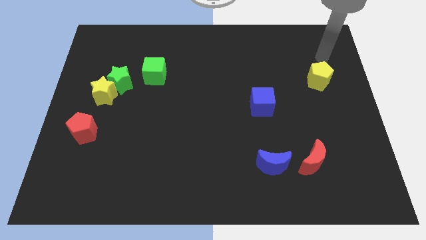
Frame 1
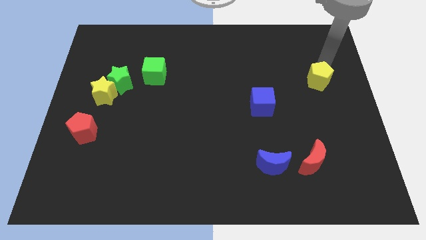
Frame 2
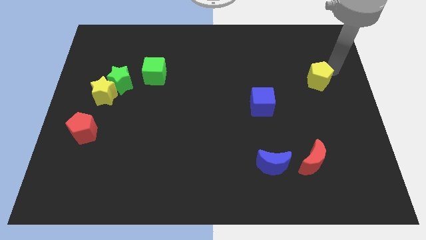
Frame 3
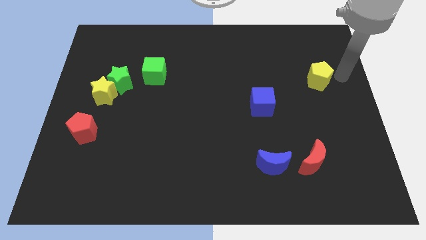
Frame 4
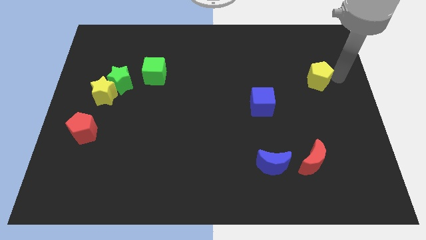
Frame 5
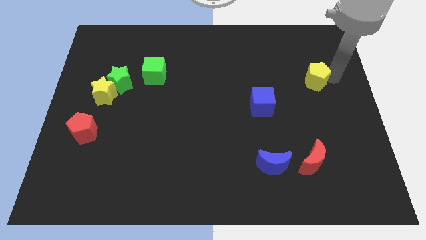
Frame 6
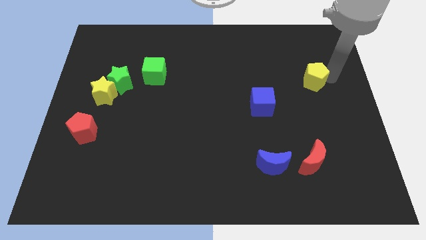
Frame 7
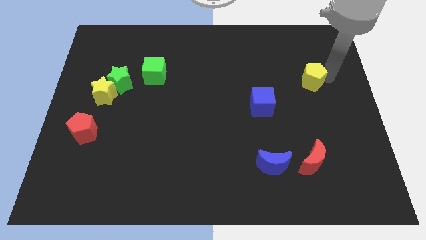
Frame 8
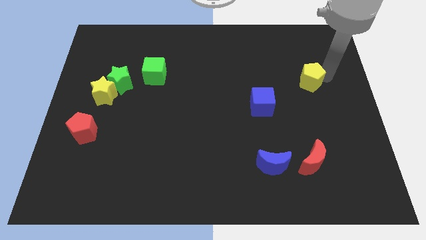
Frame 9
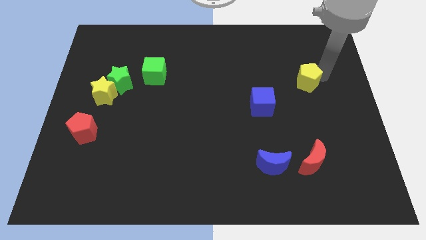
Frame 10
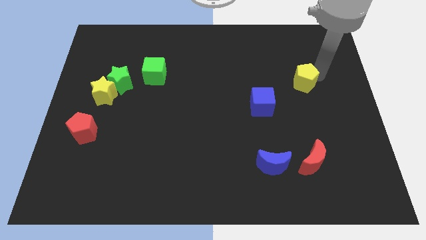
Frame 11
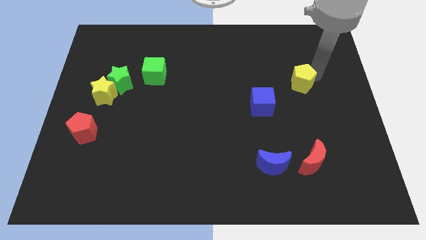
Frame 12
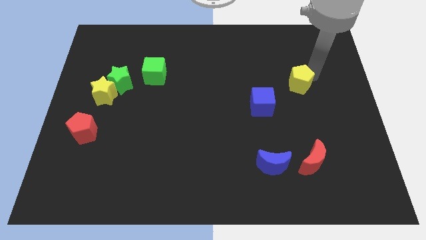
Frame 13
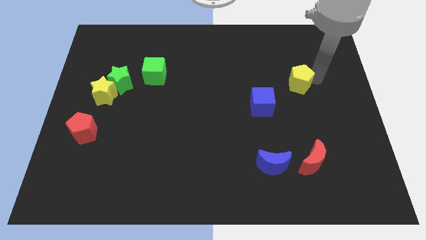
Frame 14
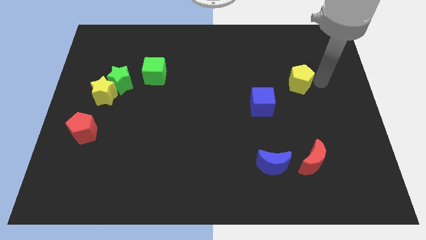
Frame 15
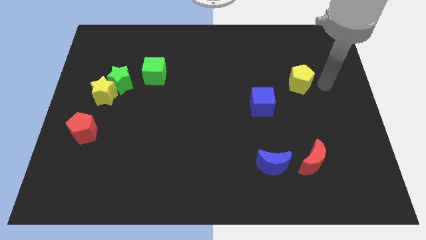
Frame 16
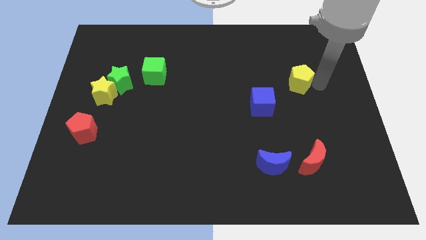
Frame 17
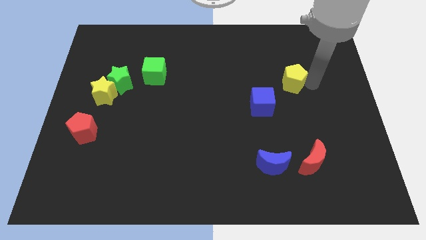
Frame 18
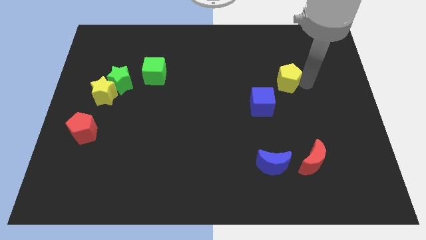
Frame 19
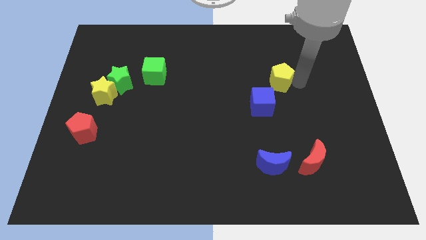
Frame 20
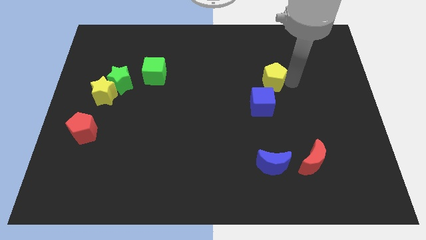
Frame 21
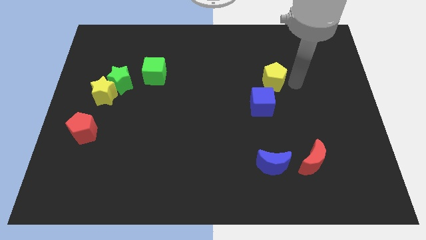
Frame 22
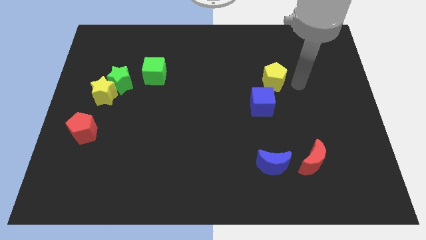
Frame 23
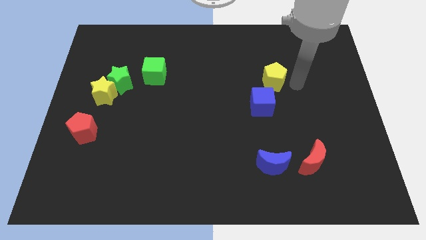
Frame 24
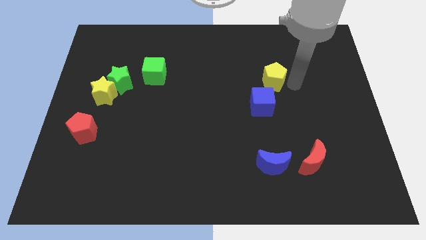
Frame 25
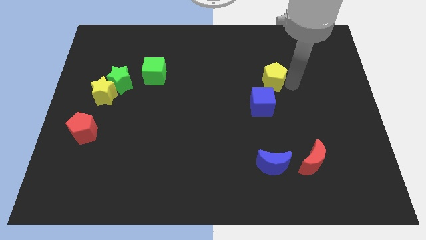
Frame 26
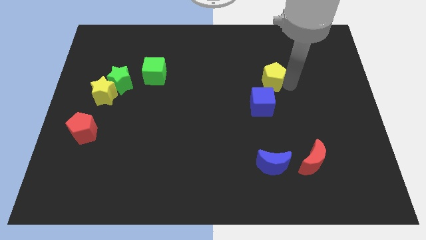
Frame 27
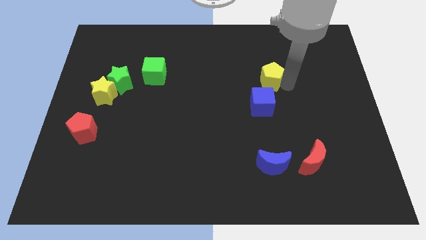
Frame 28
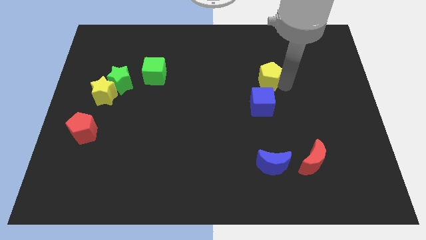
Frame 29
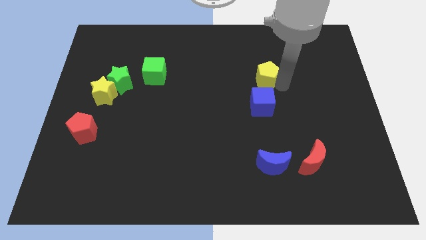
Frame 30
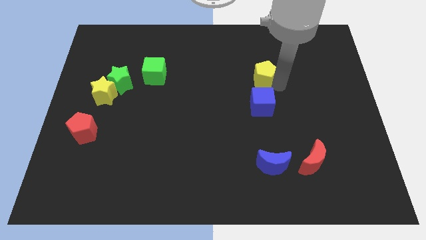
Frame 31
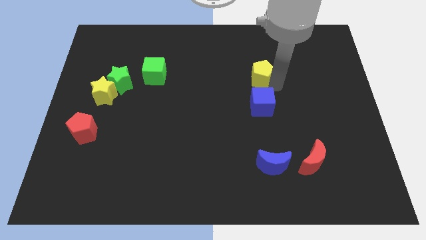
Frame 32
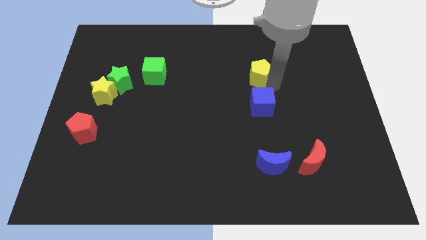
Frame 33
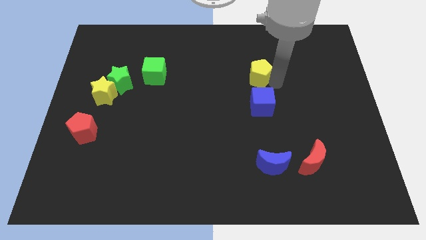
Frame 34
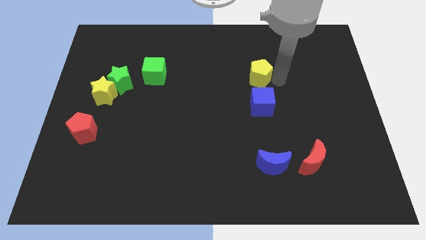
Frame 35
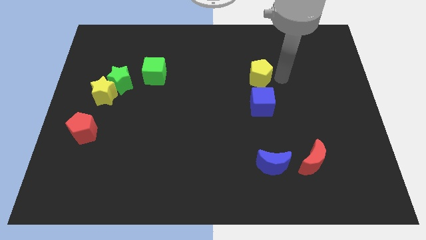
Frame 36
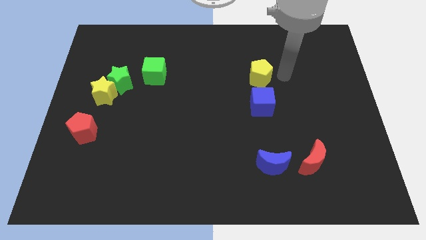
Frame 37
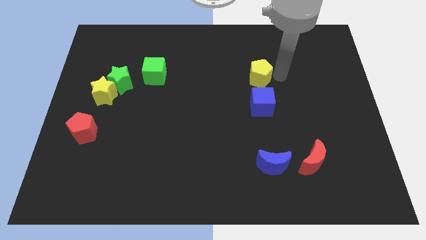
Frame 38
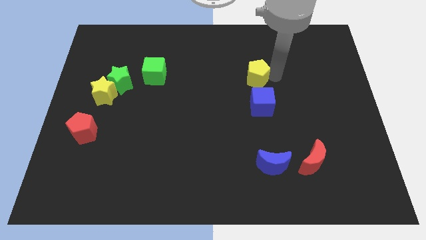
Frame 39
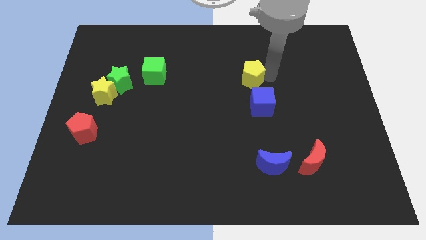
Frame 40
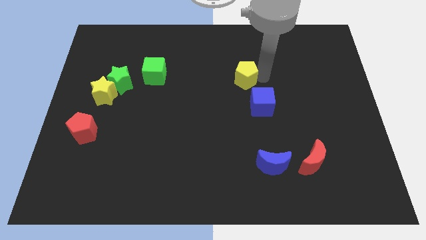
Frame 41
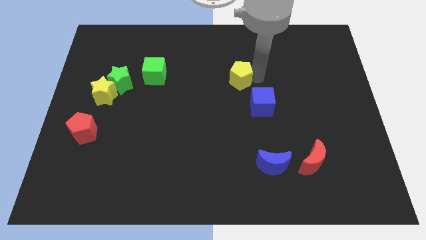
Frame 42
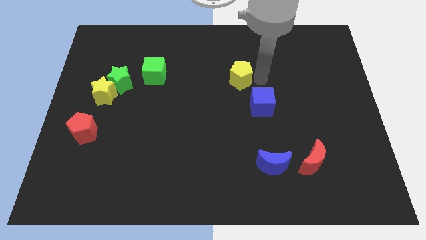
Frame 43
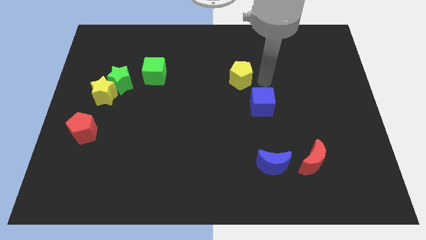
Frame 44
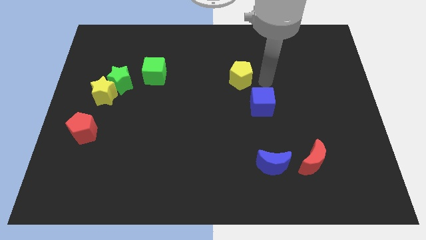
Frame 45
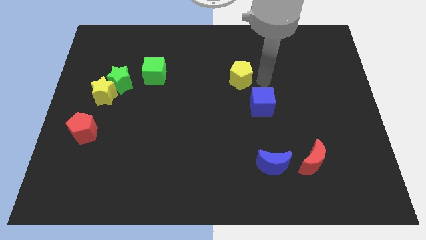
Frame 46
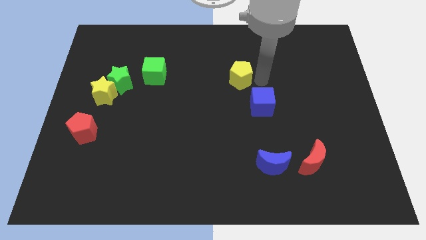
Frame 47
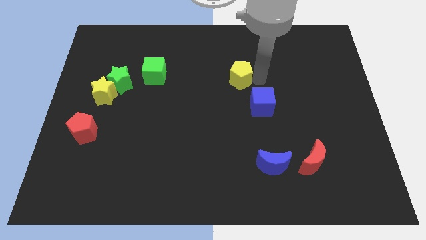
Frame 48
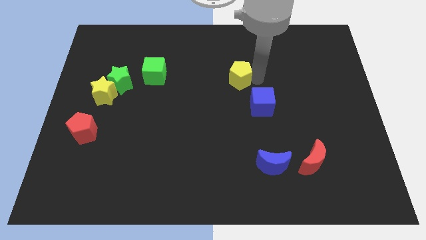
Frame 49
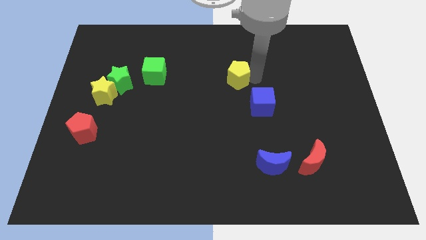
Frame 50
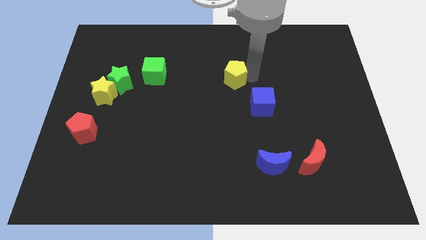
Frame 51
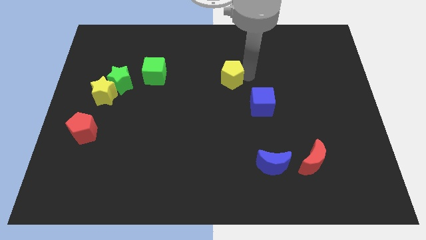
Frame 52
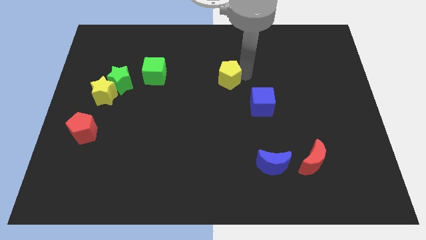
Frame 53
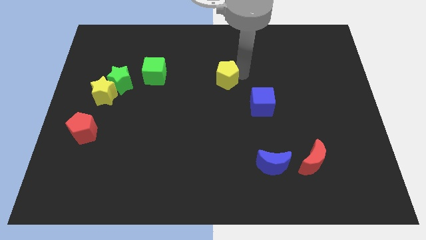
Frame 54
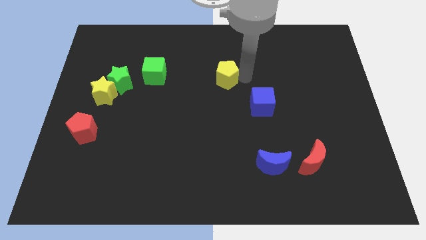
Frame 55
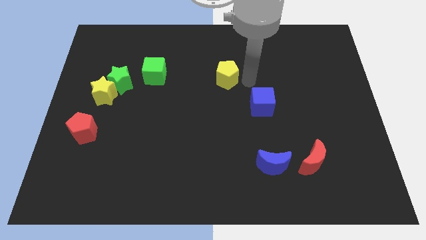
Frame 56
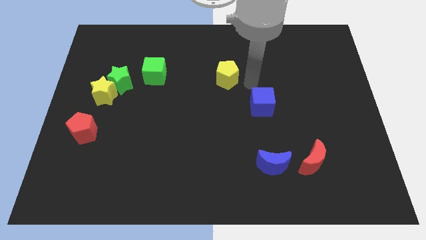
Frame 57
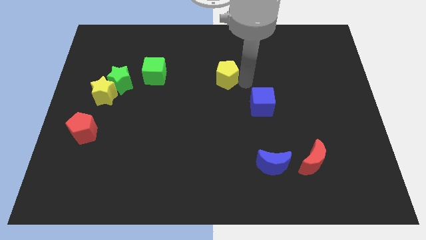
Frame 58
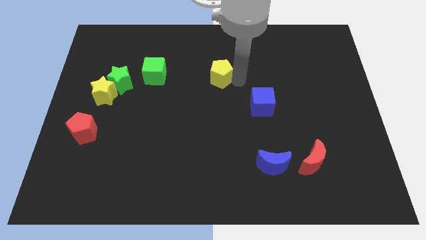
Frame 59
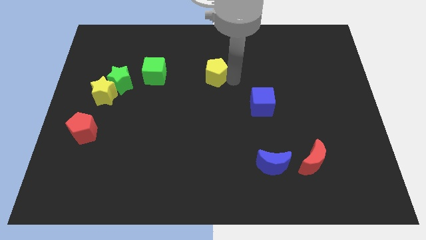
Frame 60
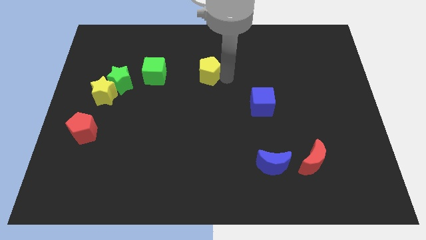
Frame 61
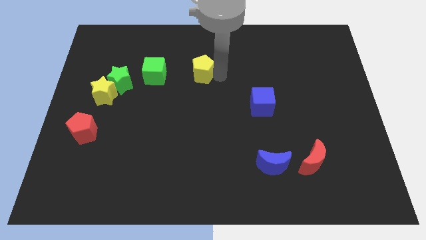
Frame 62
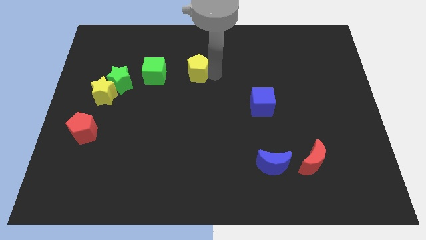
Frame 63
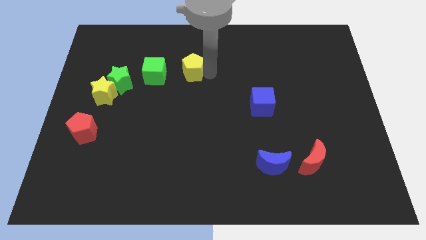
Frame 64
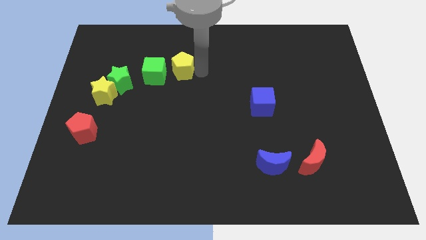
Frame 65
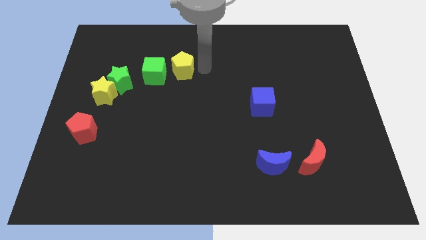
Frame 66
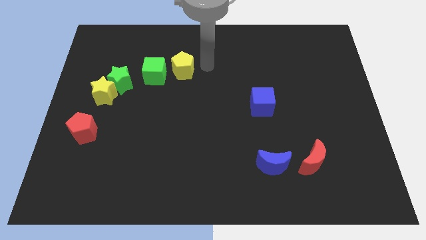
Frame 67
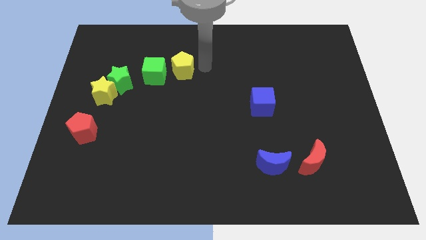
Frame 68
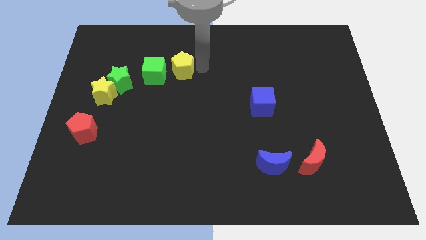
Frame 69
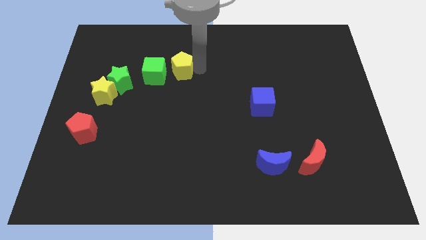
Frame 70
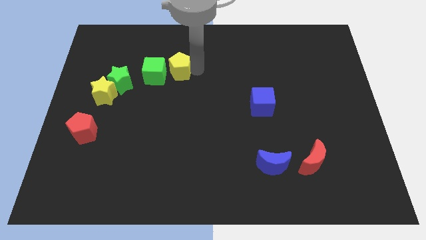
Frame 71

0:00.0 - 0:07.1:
put the yellow pentagon close to the green cube

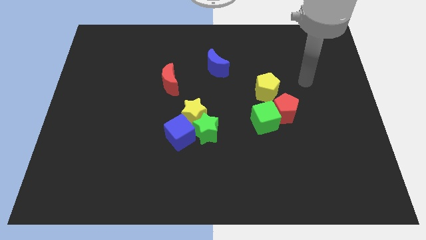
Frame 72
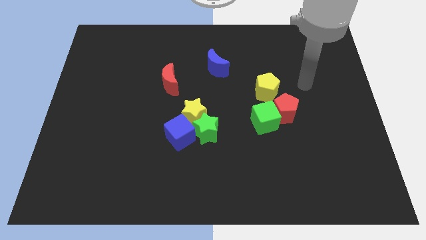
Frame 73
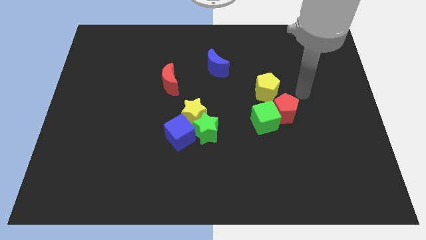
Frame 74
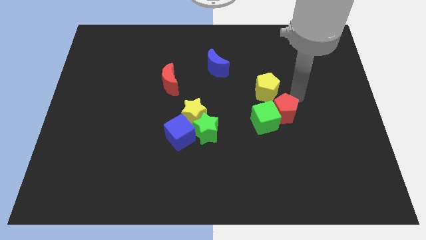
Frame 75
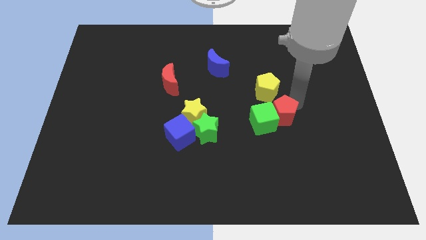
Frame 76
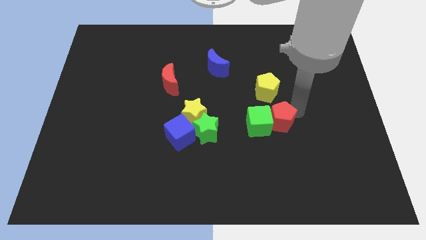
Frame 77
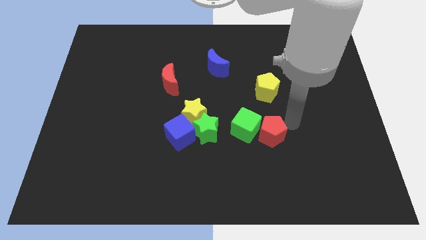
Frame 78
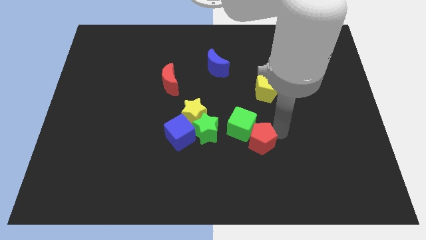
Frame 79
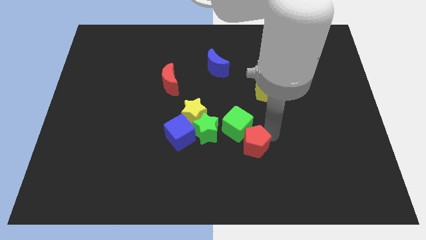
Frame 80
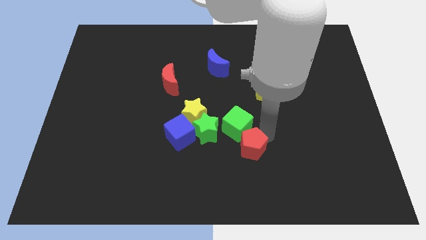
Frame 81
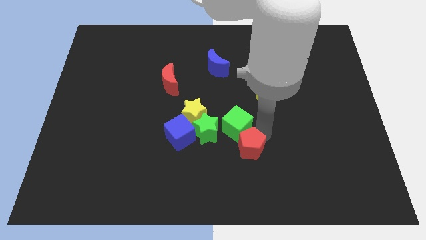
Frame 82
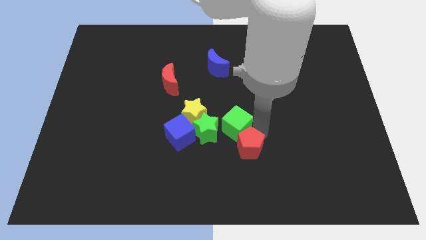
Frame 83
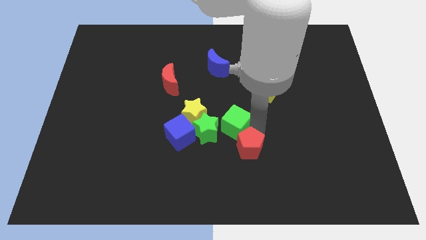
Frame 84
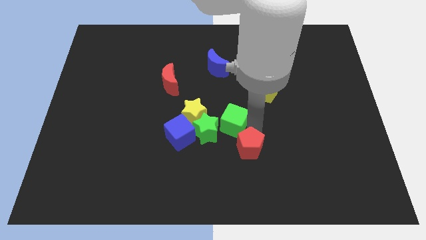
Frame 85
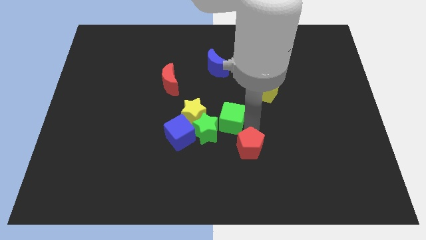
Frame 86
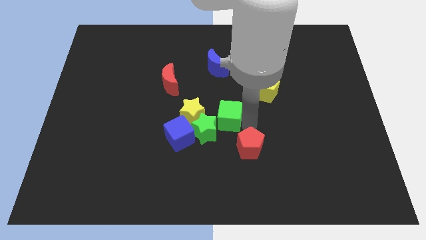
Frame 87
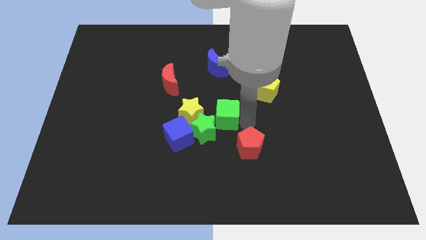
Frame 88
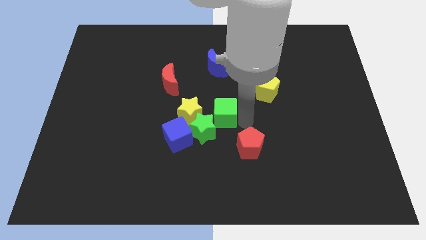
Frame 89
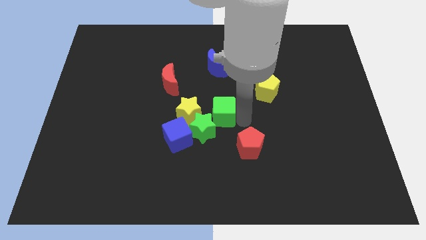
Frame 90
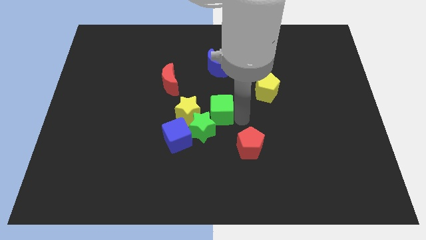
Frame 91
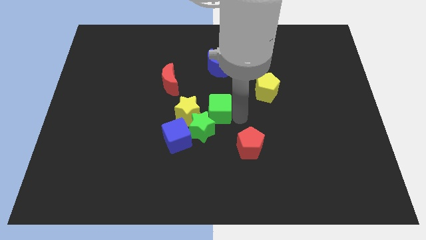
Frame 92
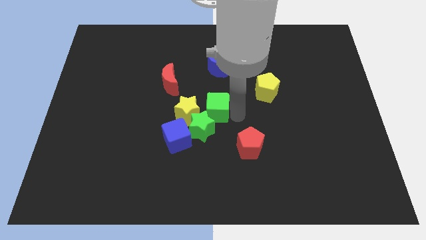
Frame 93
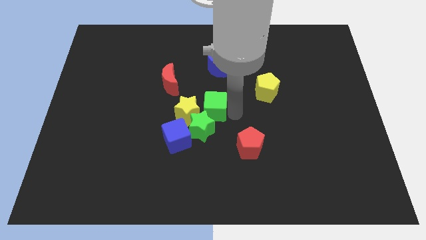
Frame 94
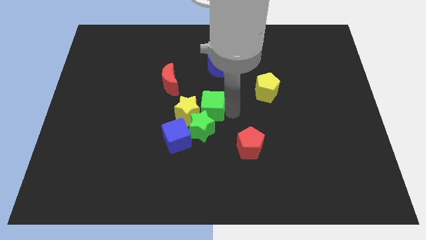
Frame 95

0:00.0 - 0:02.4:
put the green cube next to the yellow star
